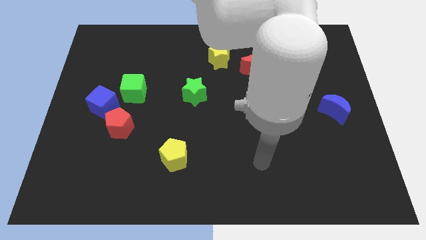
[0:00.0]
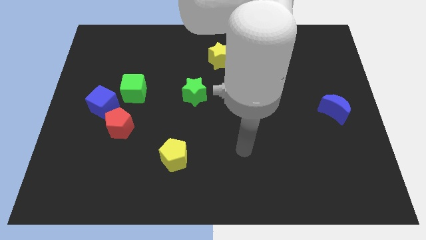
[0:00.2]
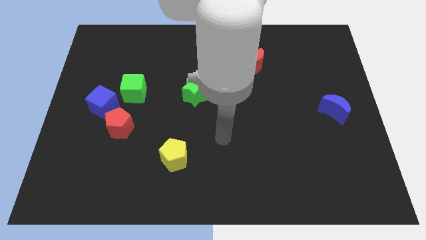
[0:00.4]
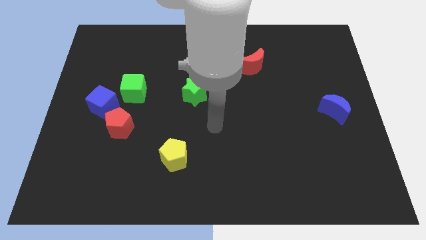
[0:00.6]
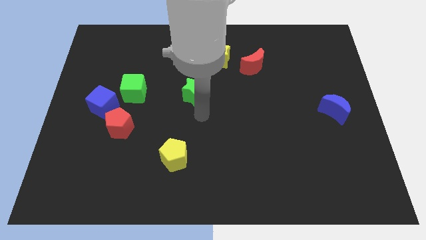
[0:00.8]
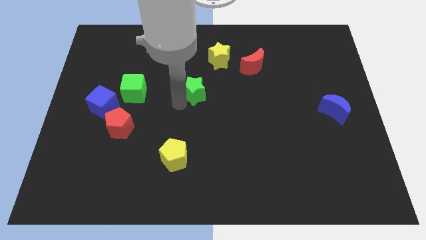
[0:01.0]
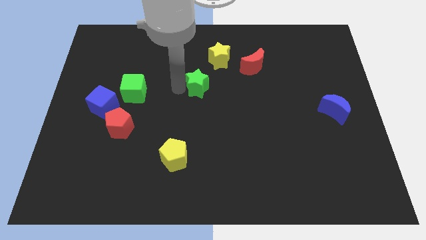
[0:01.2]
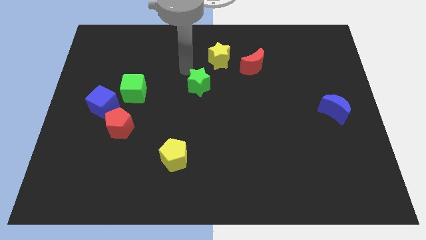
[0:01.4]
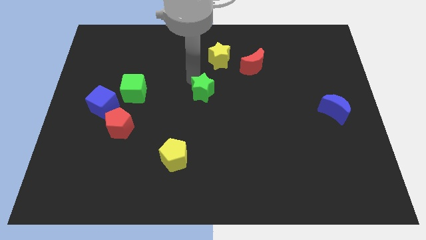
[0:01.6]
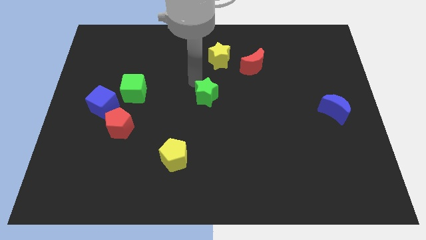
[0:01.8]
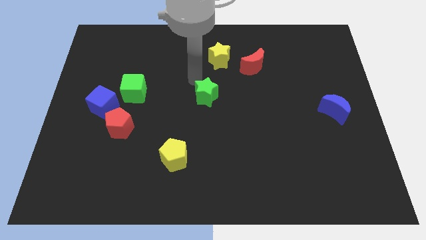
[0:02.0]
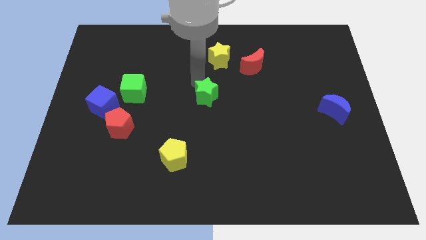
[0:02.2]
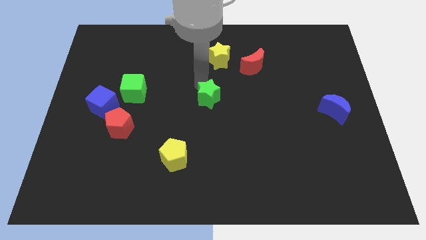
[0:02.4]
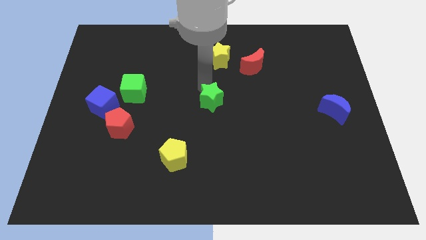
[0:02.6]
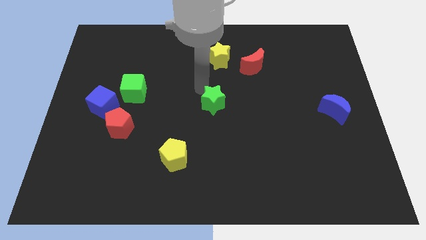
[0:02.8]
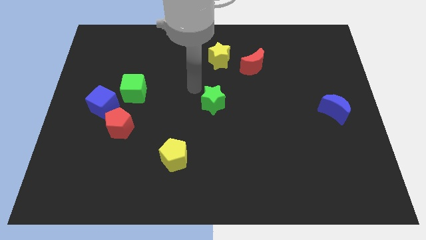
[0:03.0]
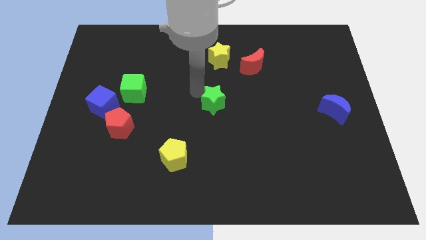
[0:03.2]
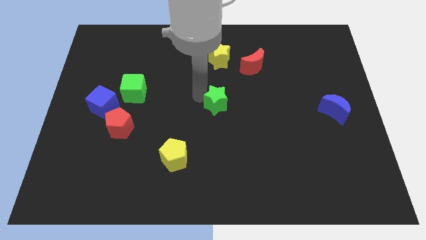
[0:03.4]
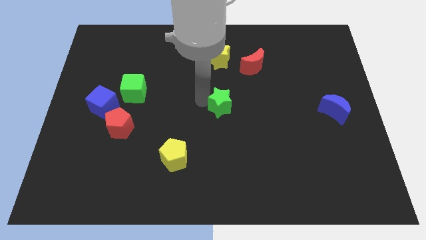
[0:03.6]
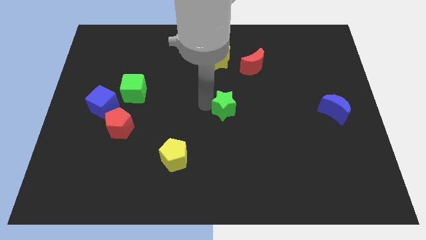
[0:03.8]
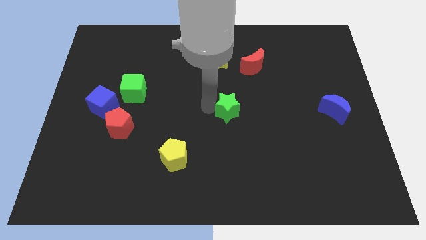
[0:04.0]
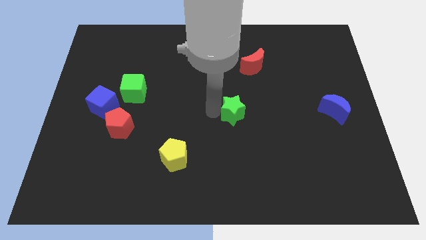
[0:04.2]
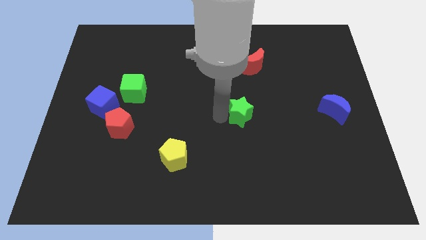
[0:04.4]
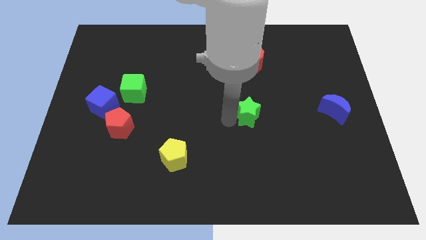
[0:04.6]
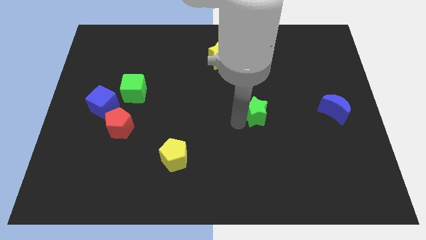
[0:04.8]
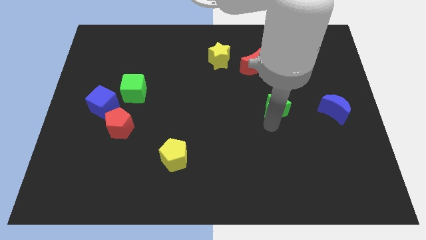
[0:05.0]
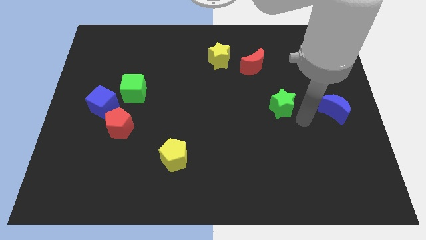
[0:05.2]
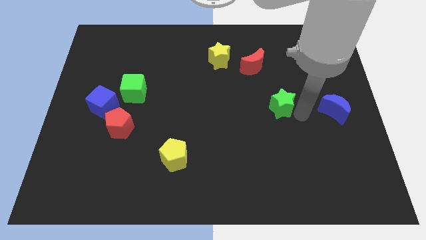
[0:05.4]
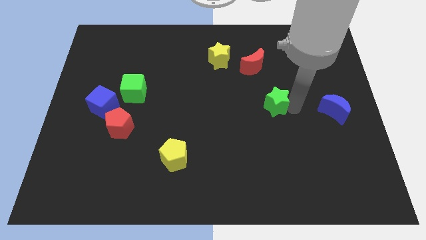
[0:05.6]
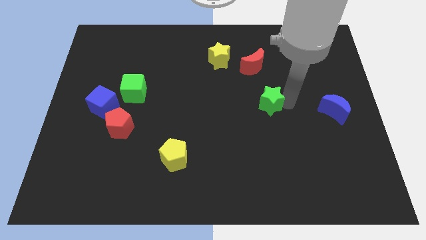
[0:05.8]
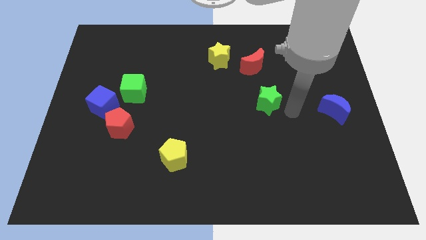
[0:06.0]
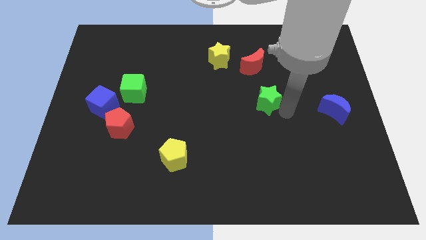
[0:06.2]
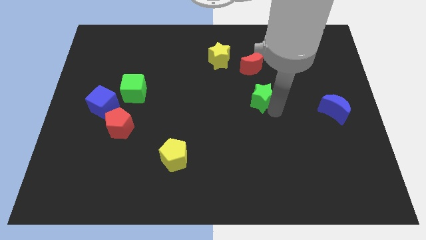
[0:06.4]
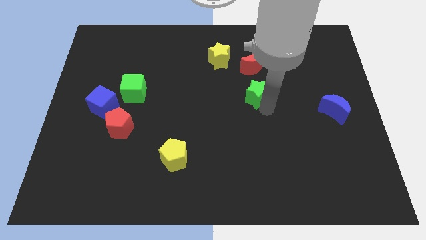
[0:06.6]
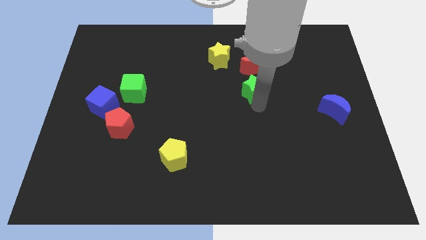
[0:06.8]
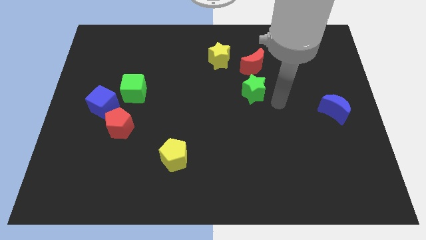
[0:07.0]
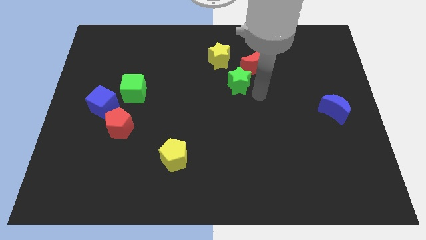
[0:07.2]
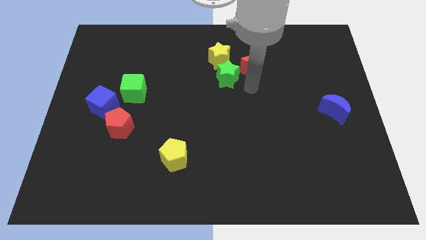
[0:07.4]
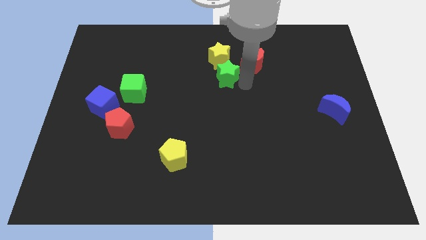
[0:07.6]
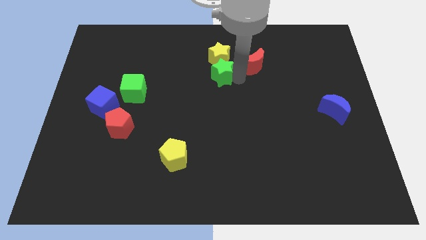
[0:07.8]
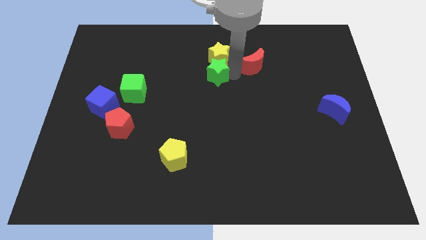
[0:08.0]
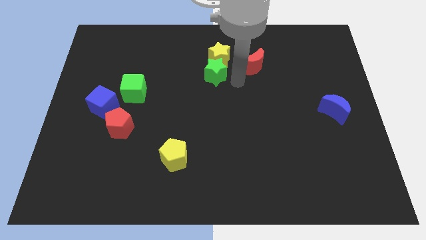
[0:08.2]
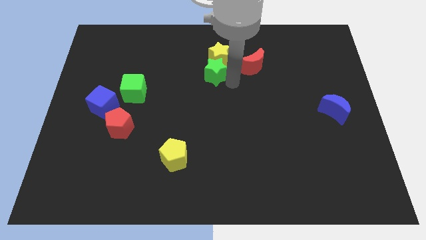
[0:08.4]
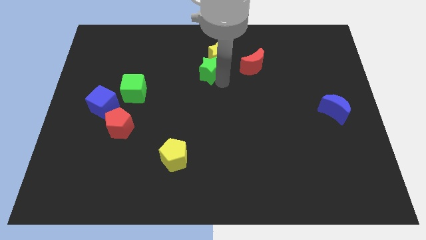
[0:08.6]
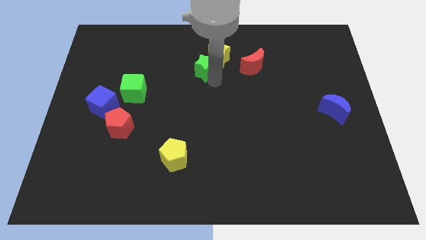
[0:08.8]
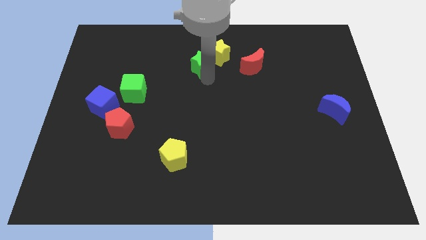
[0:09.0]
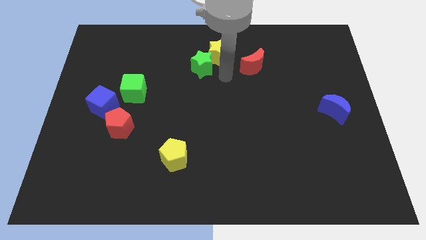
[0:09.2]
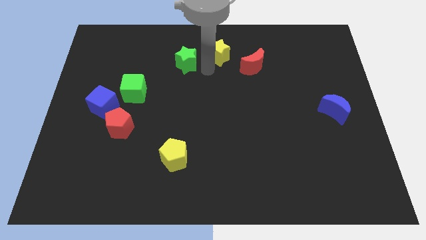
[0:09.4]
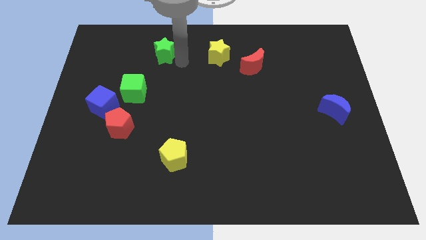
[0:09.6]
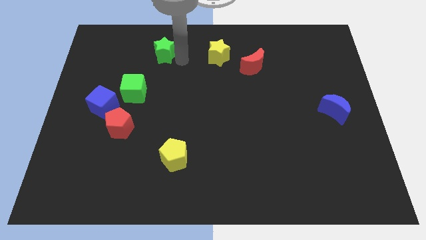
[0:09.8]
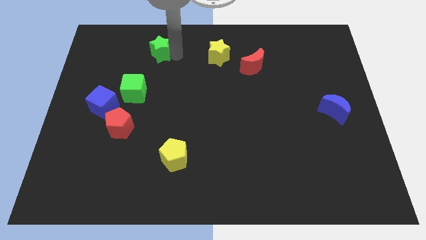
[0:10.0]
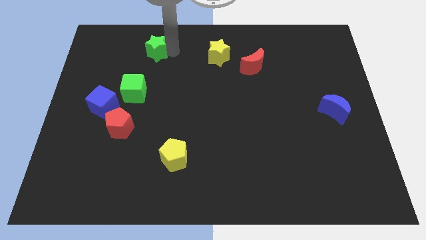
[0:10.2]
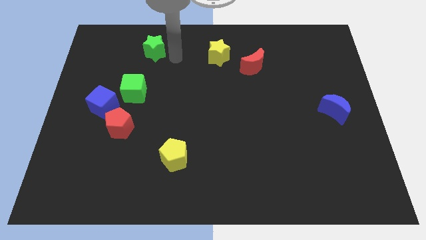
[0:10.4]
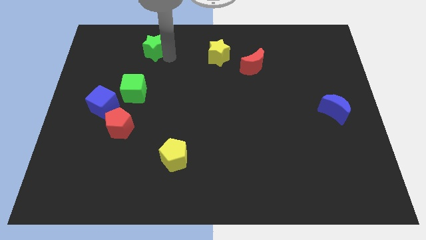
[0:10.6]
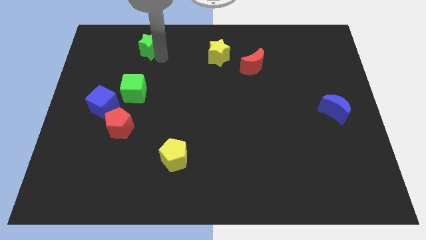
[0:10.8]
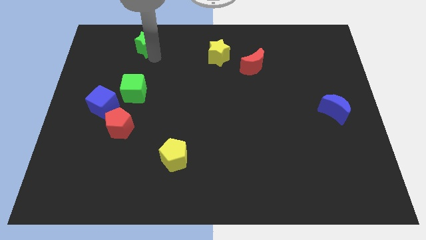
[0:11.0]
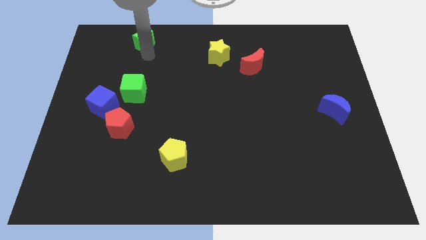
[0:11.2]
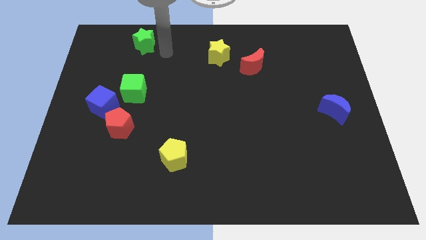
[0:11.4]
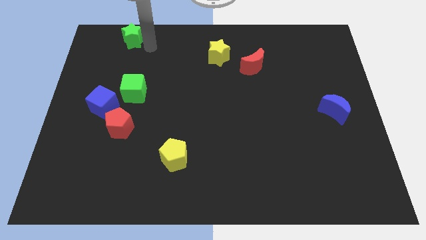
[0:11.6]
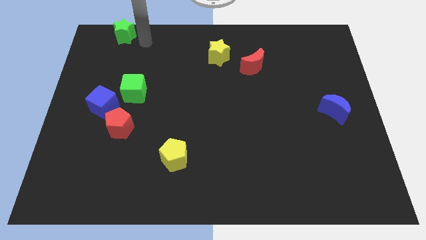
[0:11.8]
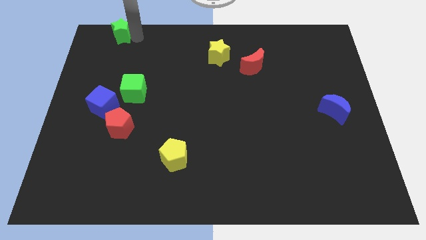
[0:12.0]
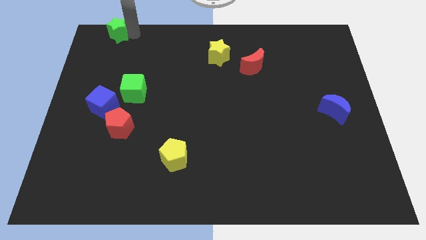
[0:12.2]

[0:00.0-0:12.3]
move the green star to the top left corner
